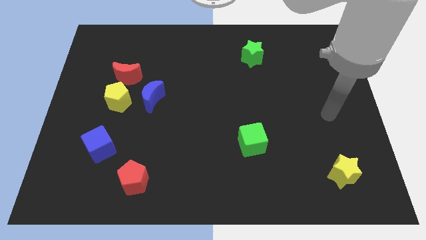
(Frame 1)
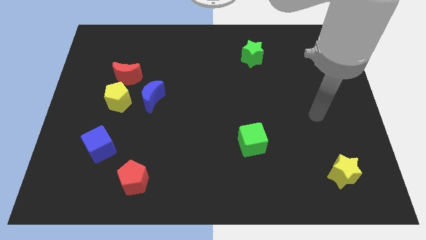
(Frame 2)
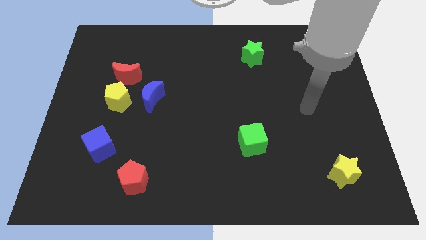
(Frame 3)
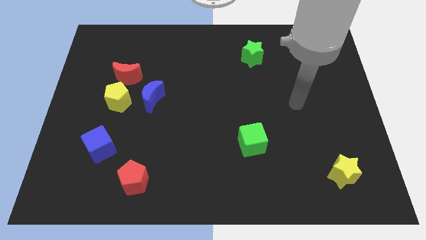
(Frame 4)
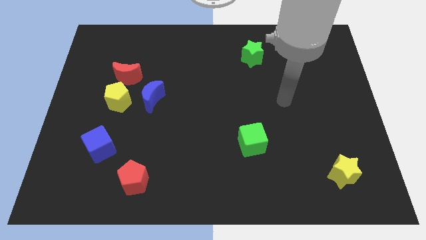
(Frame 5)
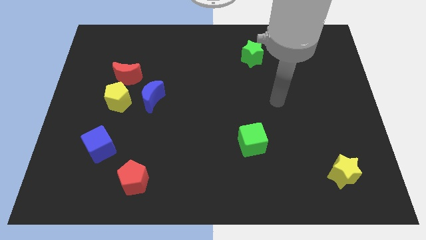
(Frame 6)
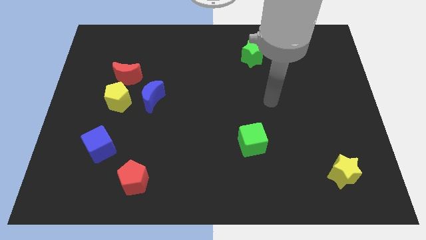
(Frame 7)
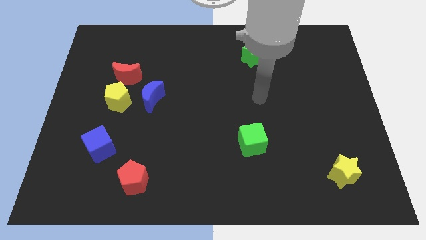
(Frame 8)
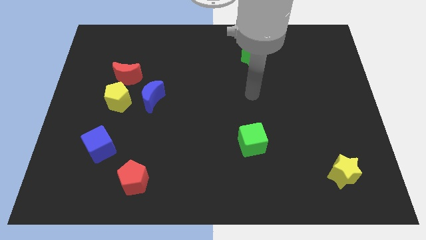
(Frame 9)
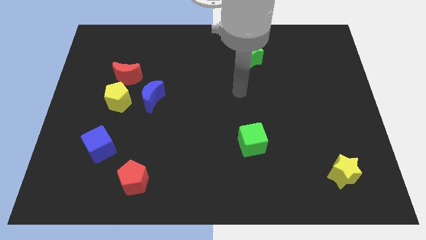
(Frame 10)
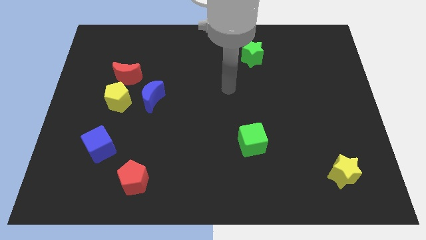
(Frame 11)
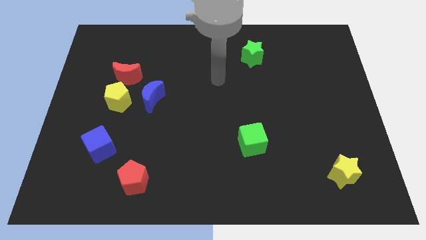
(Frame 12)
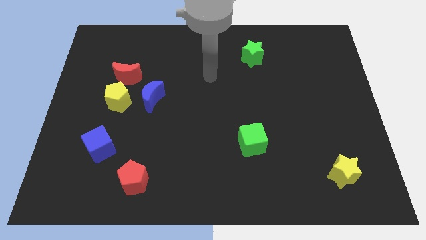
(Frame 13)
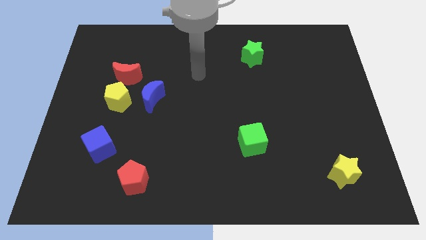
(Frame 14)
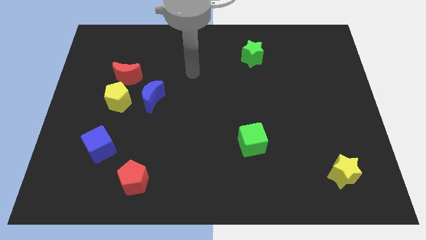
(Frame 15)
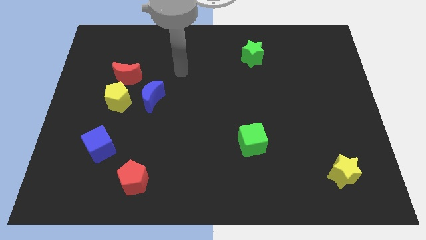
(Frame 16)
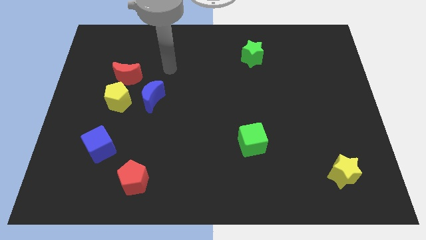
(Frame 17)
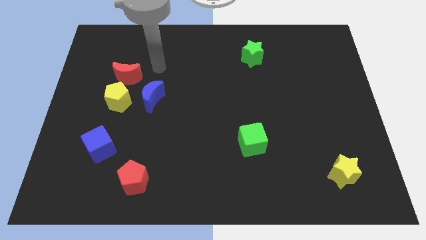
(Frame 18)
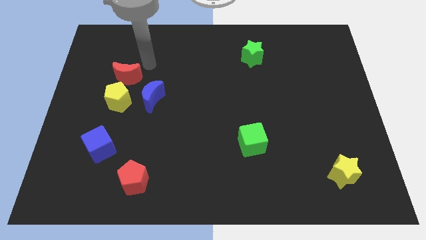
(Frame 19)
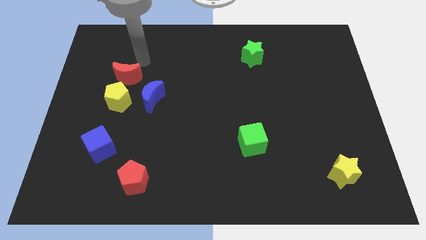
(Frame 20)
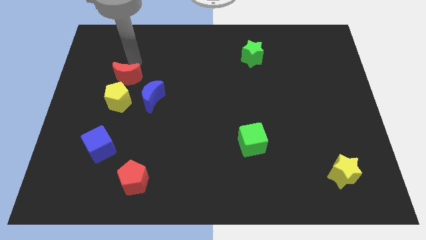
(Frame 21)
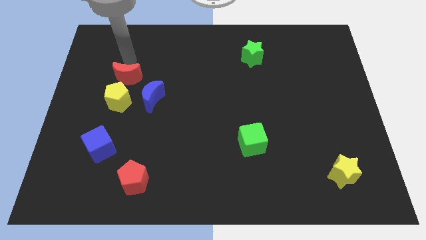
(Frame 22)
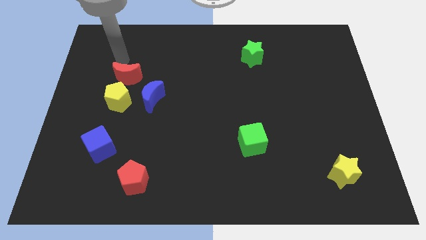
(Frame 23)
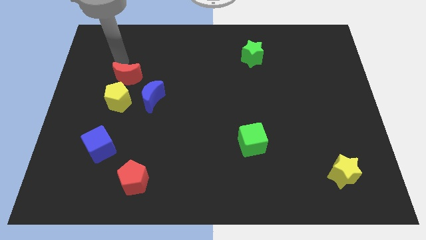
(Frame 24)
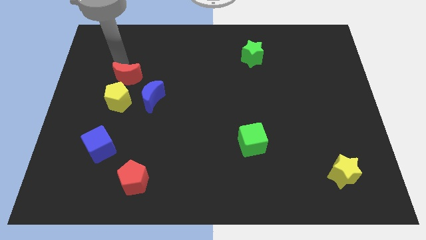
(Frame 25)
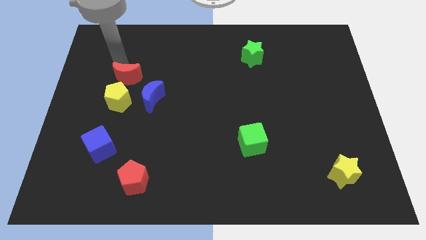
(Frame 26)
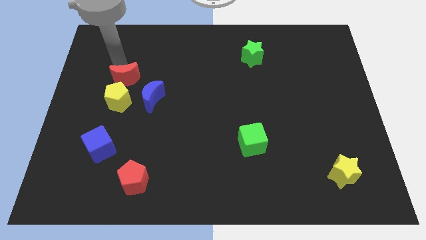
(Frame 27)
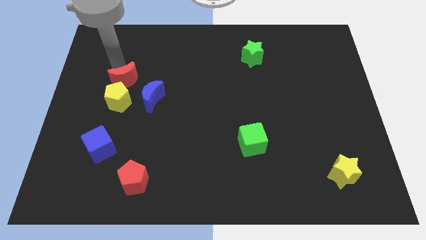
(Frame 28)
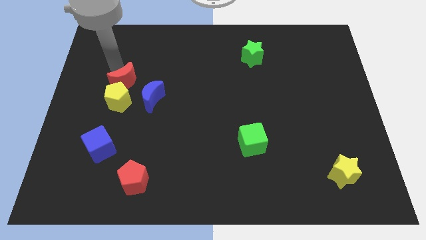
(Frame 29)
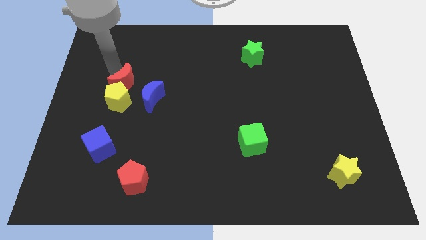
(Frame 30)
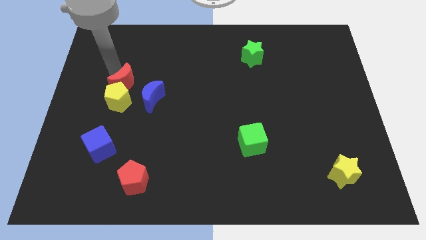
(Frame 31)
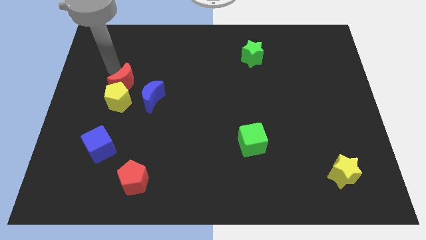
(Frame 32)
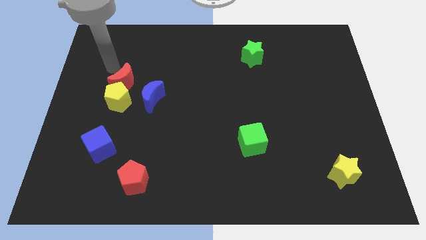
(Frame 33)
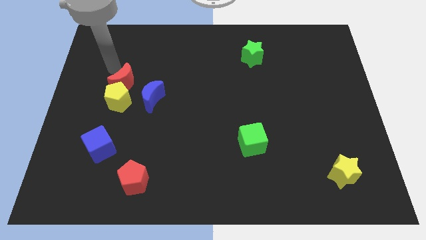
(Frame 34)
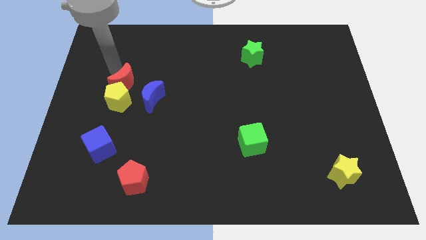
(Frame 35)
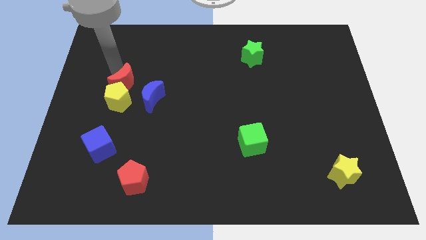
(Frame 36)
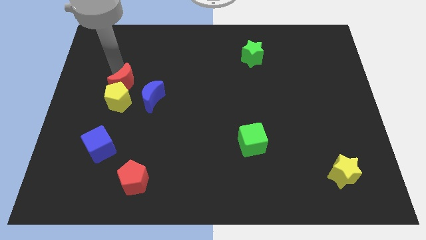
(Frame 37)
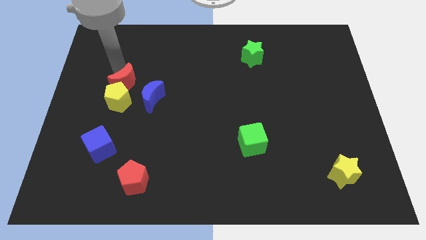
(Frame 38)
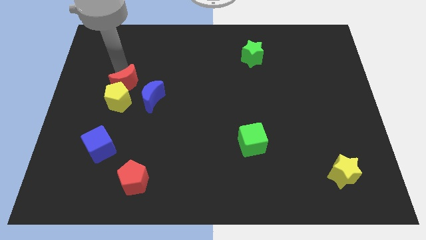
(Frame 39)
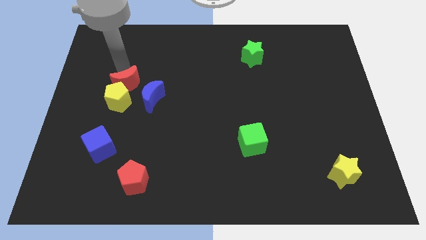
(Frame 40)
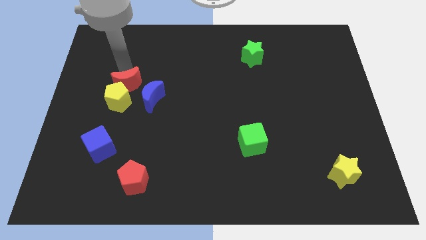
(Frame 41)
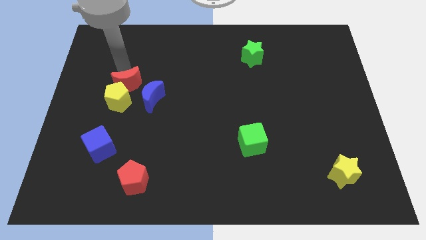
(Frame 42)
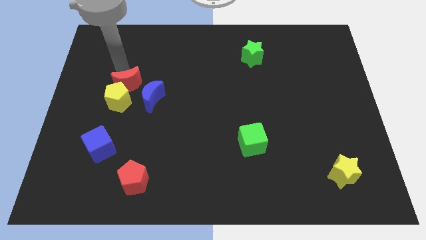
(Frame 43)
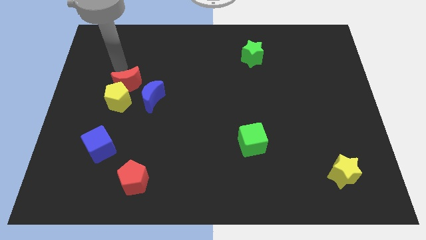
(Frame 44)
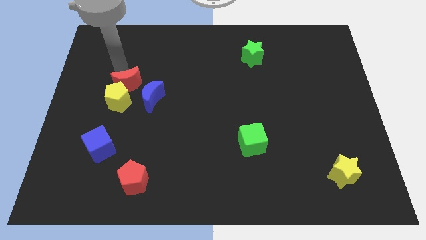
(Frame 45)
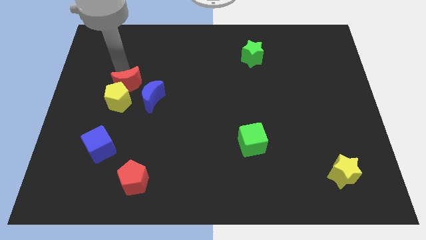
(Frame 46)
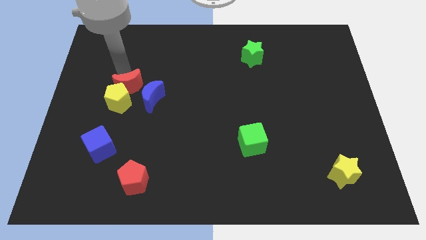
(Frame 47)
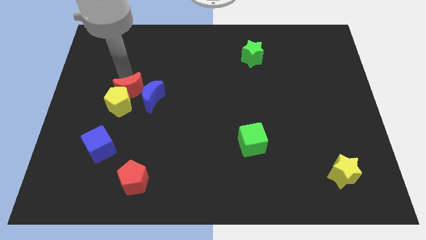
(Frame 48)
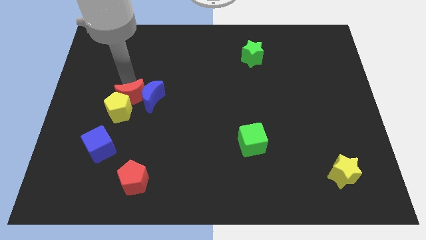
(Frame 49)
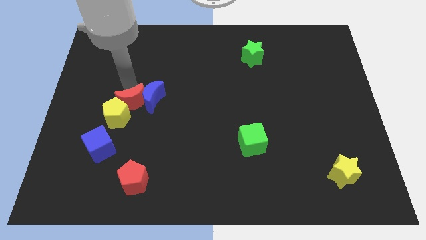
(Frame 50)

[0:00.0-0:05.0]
move the red moon a bit downwards and right diagonally

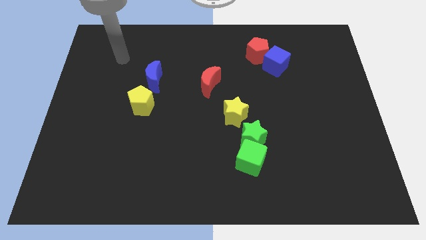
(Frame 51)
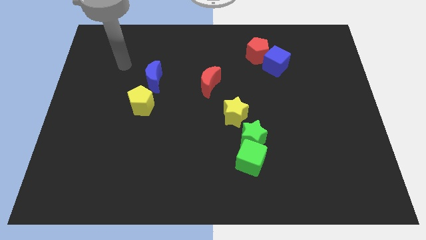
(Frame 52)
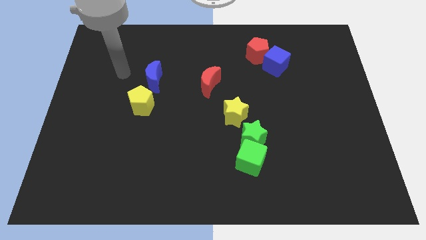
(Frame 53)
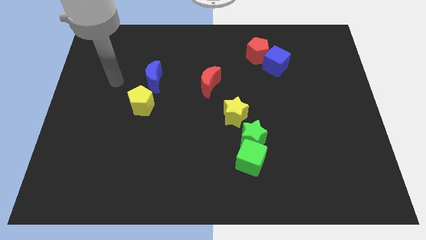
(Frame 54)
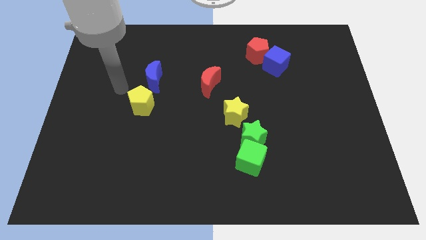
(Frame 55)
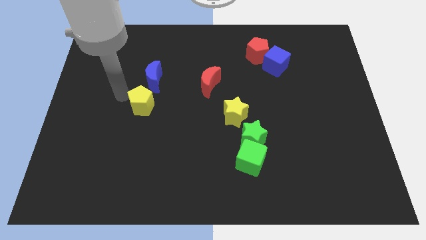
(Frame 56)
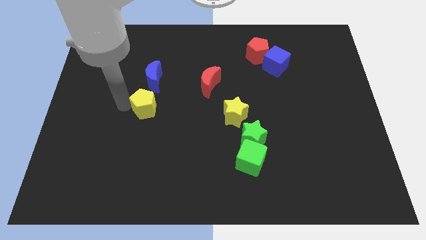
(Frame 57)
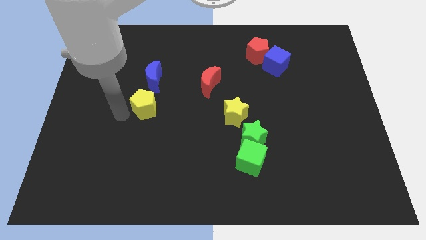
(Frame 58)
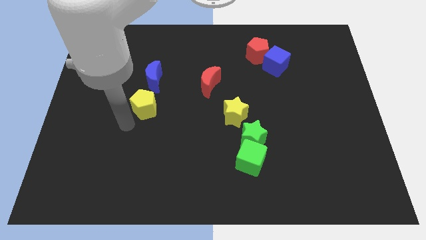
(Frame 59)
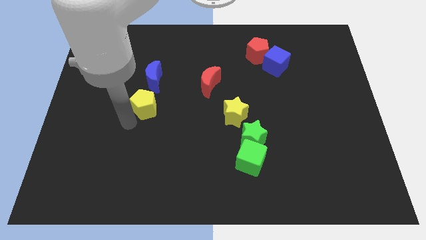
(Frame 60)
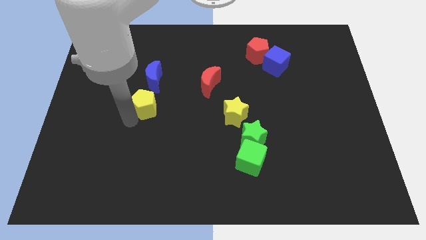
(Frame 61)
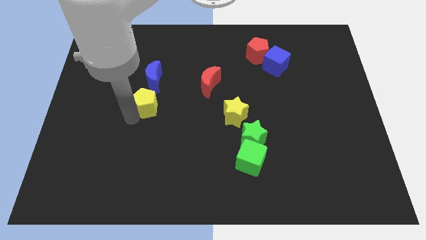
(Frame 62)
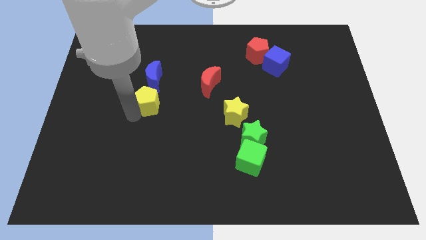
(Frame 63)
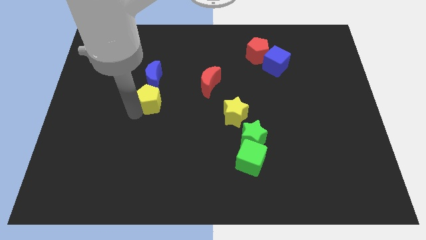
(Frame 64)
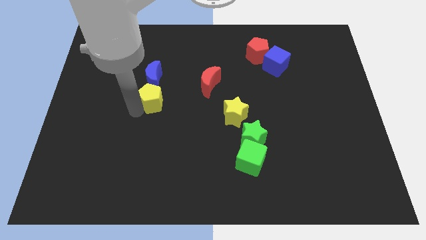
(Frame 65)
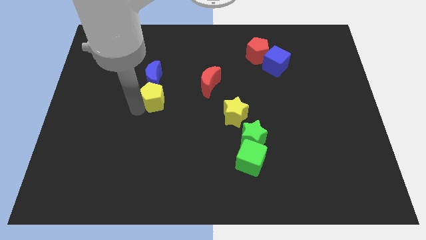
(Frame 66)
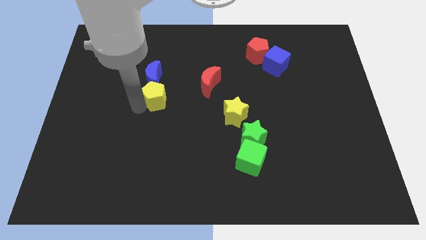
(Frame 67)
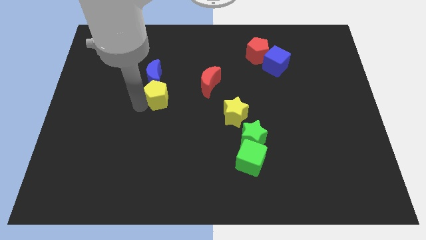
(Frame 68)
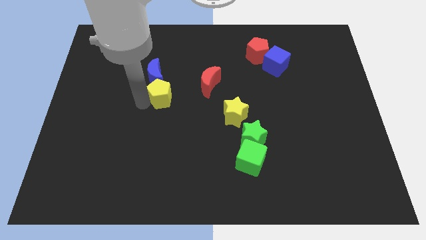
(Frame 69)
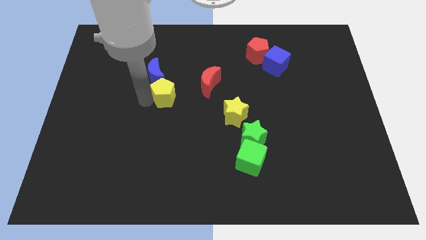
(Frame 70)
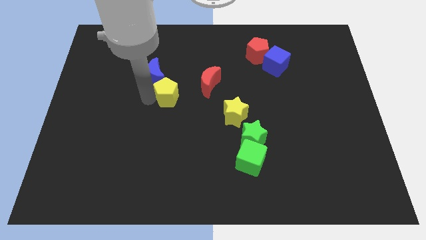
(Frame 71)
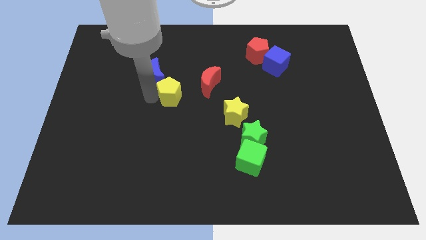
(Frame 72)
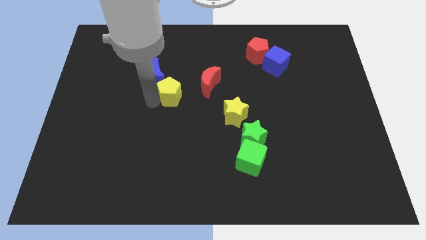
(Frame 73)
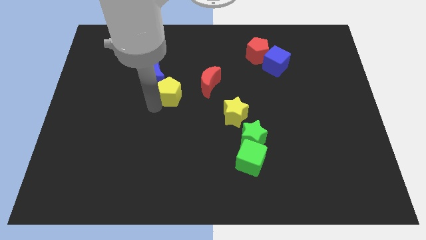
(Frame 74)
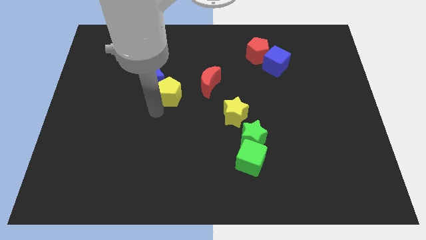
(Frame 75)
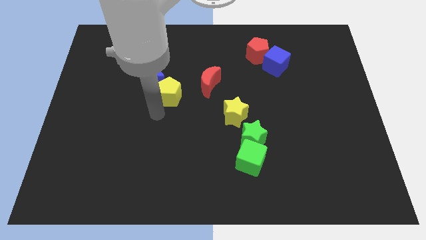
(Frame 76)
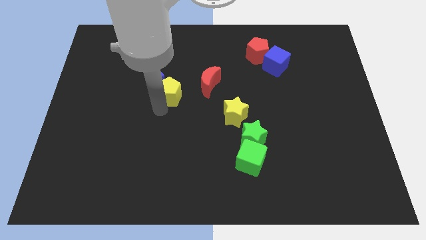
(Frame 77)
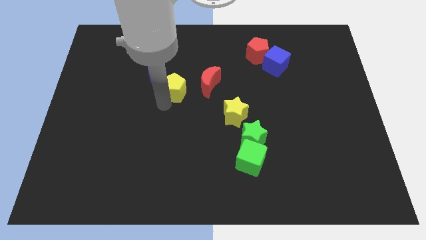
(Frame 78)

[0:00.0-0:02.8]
slide the yellow pentagon a bit up and then right

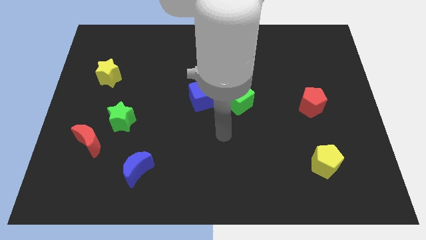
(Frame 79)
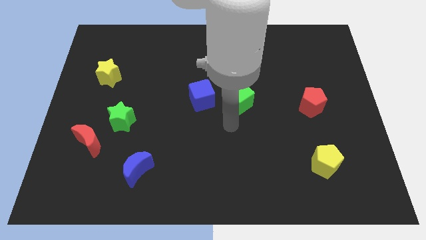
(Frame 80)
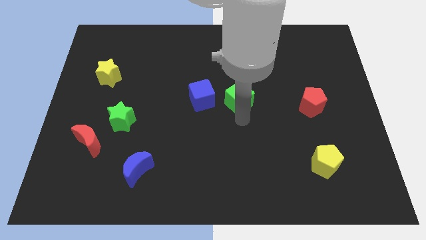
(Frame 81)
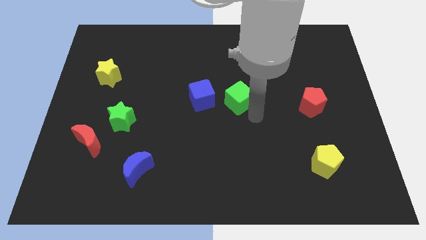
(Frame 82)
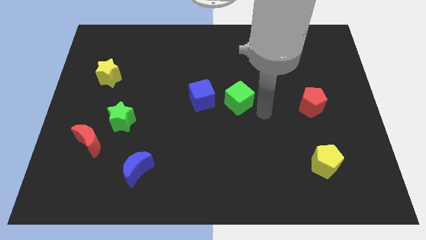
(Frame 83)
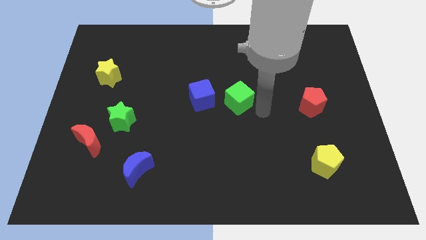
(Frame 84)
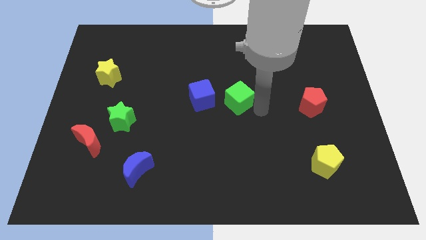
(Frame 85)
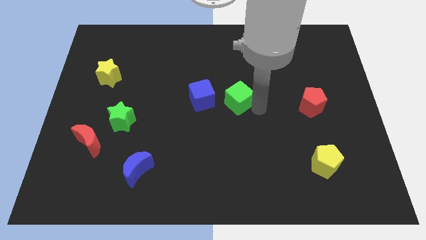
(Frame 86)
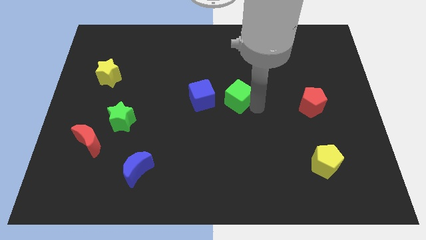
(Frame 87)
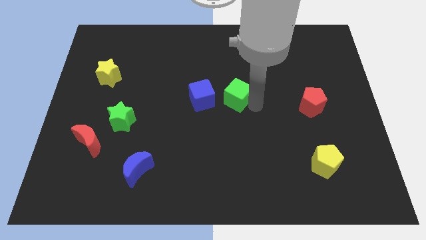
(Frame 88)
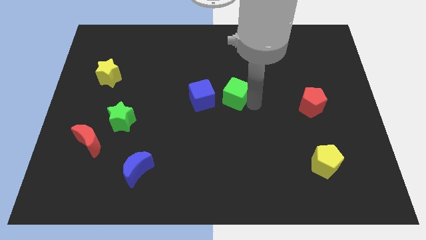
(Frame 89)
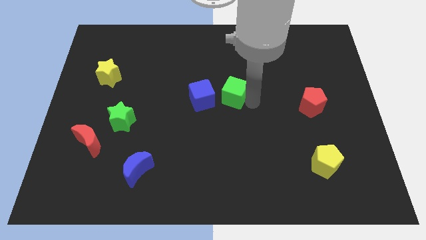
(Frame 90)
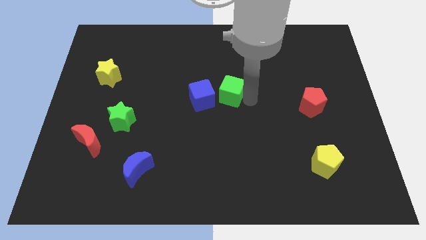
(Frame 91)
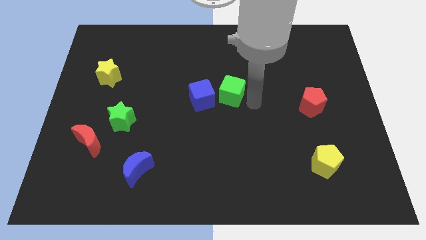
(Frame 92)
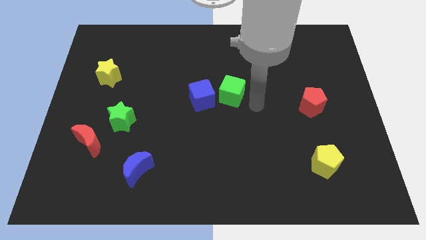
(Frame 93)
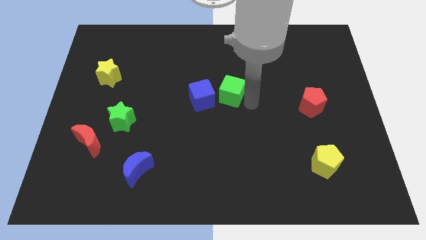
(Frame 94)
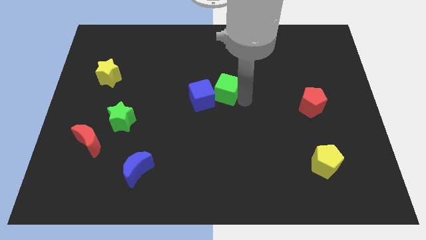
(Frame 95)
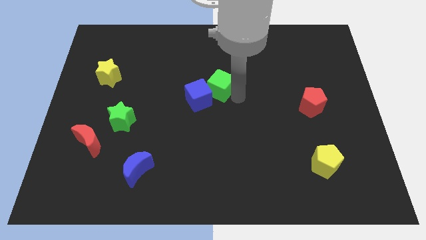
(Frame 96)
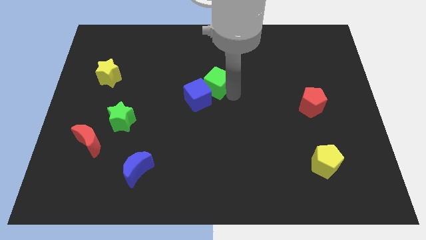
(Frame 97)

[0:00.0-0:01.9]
slightly slide the green cube diagonally upwards and left
